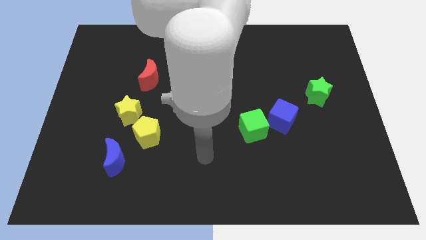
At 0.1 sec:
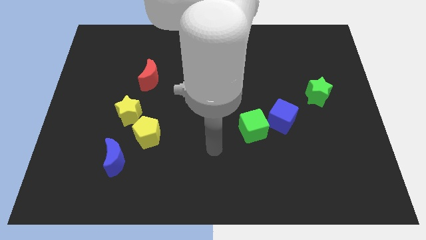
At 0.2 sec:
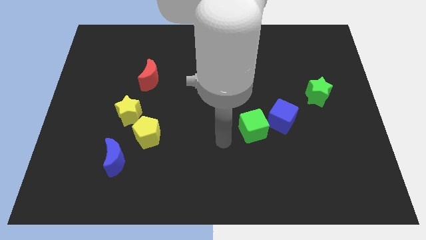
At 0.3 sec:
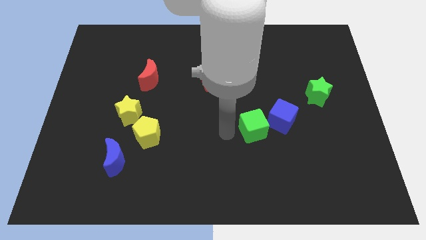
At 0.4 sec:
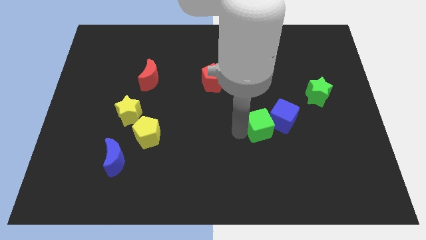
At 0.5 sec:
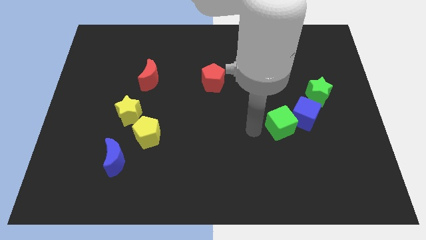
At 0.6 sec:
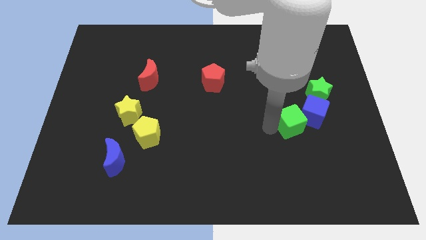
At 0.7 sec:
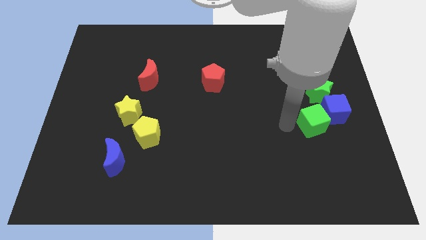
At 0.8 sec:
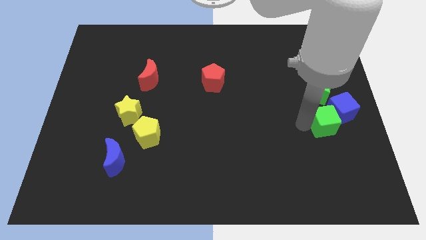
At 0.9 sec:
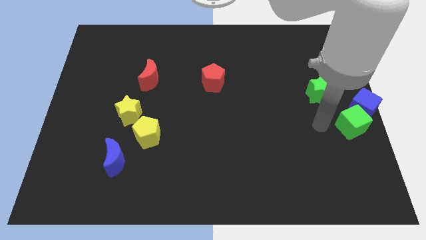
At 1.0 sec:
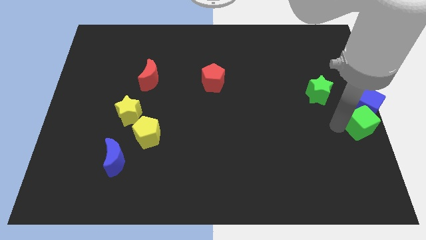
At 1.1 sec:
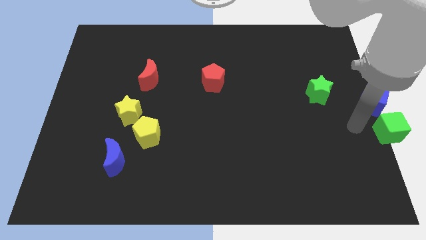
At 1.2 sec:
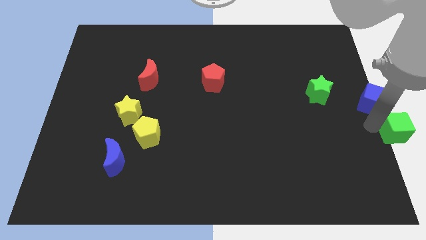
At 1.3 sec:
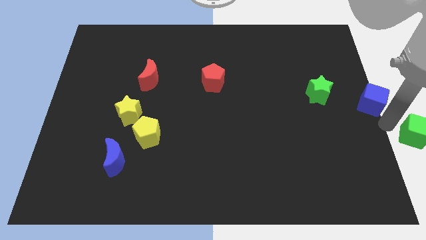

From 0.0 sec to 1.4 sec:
separate the blue cube from the green cube

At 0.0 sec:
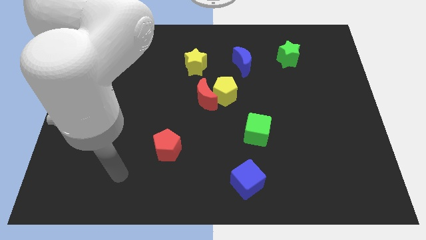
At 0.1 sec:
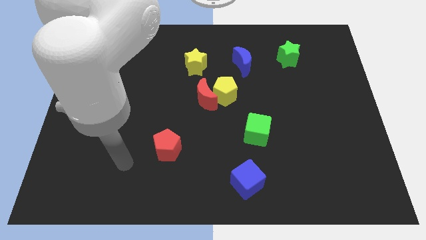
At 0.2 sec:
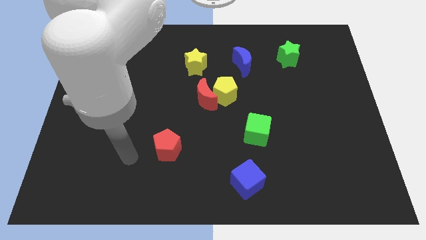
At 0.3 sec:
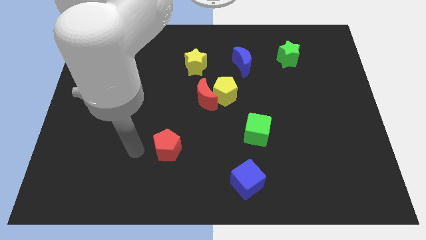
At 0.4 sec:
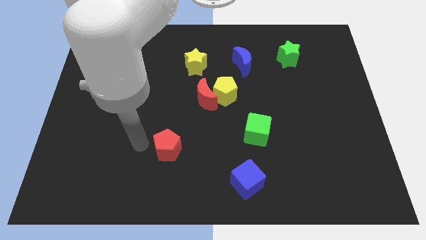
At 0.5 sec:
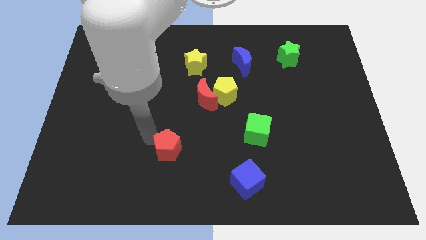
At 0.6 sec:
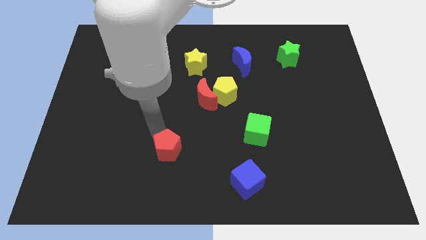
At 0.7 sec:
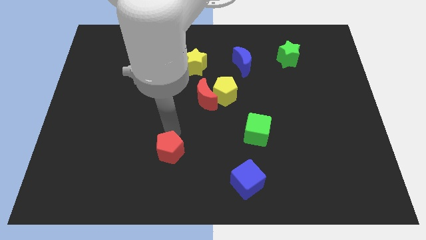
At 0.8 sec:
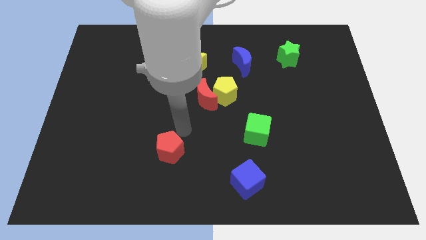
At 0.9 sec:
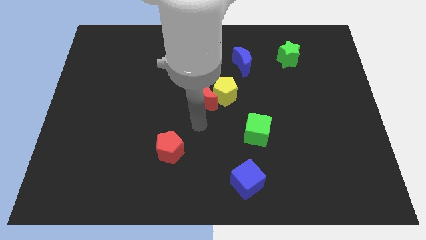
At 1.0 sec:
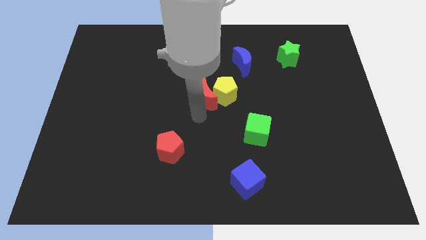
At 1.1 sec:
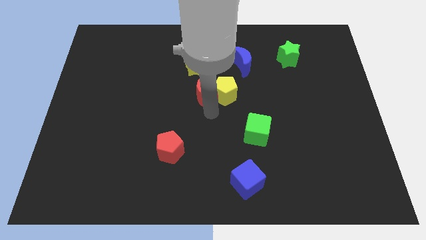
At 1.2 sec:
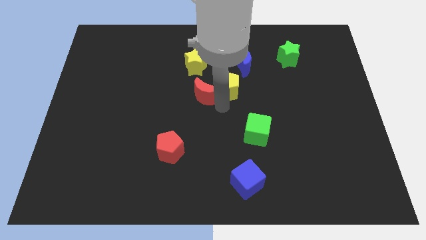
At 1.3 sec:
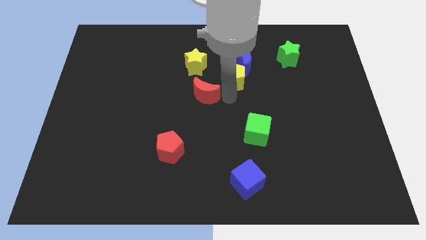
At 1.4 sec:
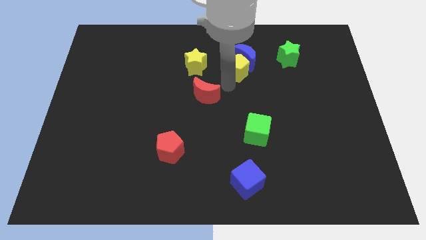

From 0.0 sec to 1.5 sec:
move the red moon away from the yellow pentagon

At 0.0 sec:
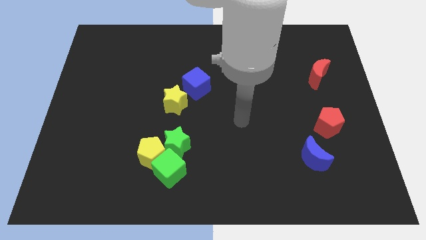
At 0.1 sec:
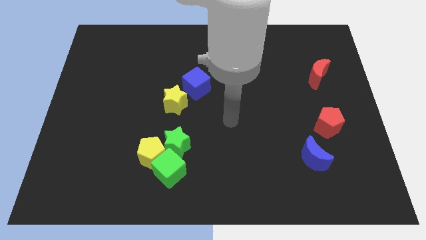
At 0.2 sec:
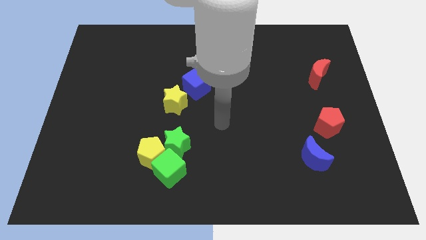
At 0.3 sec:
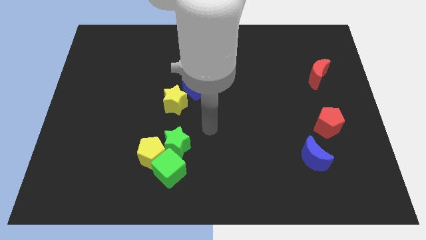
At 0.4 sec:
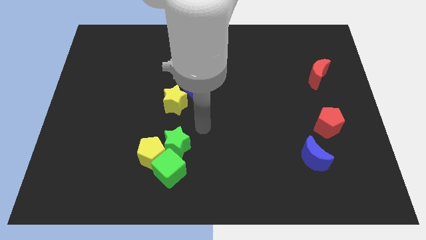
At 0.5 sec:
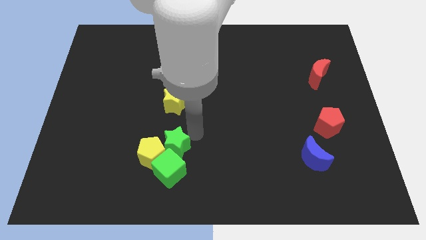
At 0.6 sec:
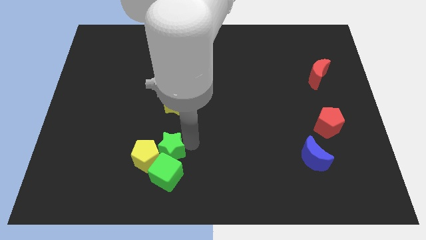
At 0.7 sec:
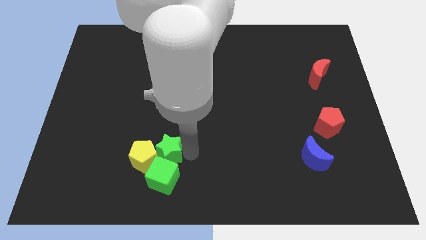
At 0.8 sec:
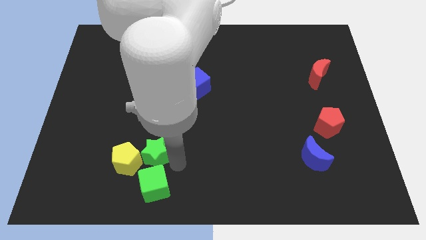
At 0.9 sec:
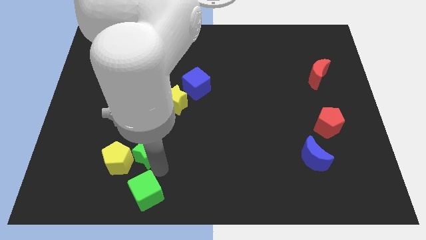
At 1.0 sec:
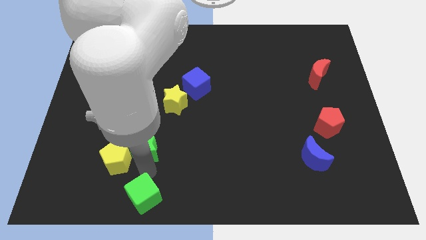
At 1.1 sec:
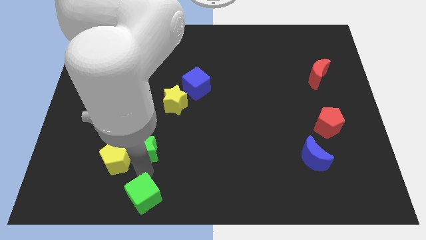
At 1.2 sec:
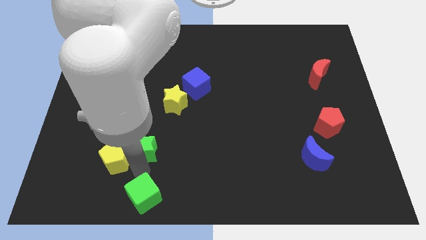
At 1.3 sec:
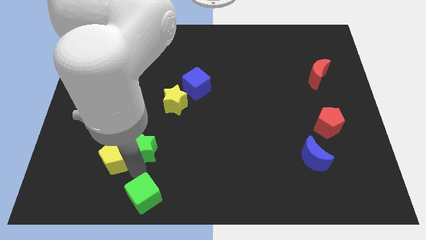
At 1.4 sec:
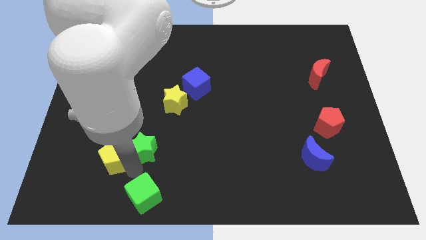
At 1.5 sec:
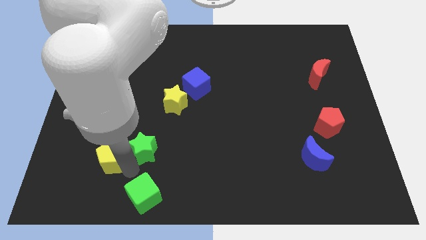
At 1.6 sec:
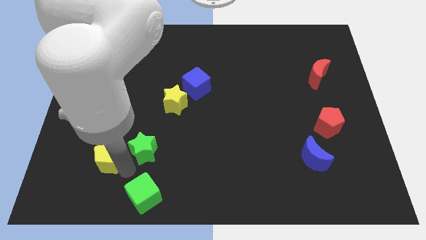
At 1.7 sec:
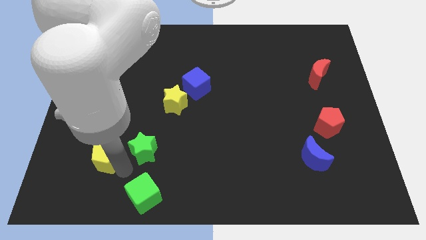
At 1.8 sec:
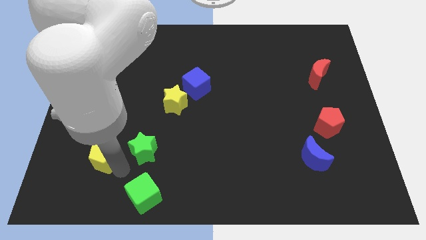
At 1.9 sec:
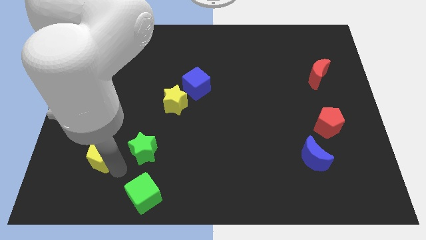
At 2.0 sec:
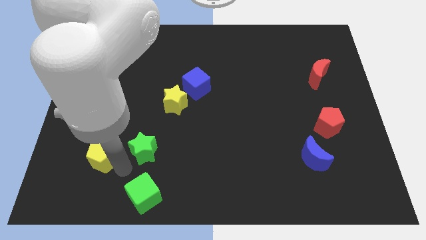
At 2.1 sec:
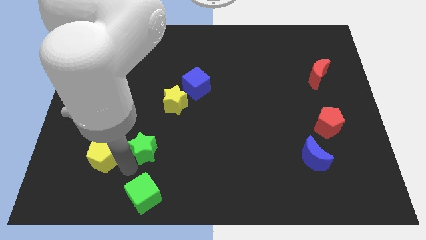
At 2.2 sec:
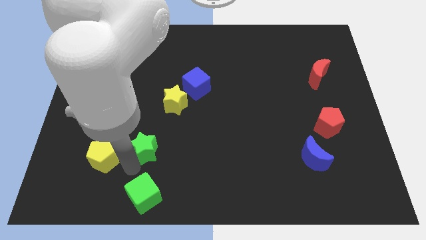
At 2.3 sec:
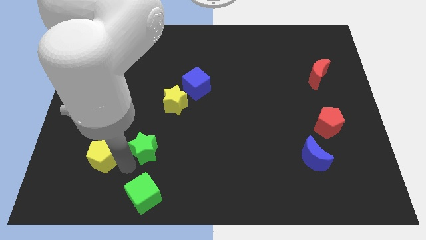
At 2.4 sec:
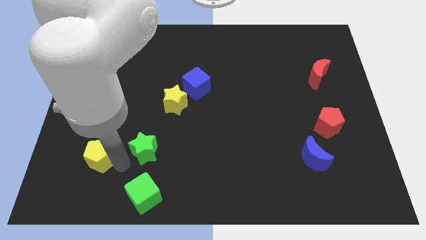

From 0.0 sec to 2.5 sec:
pull the yellow pentagon apart from the green cube and green star

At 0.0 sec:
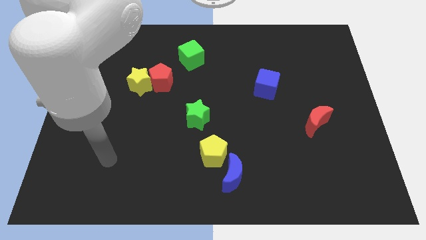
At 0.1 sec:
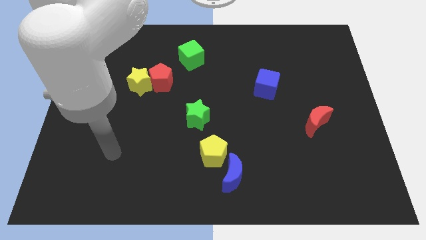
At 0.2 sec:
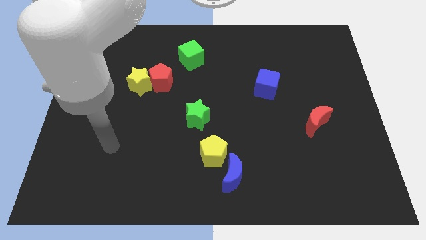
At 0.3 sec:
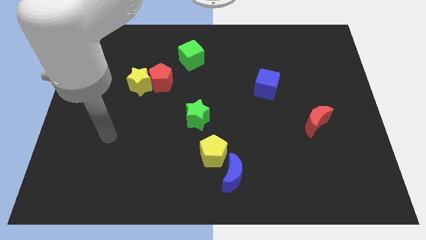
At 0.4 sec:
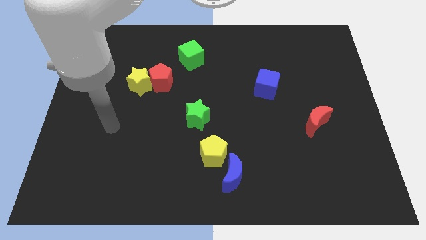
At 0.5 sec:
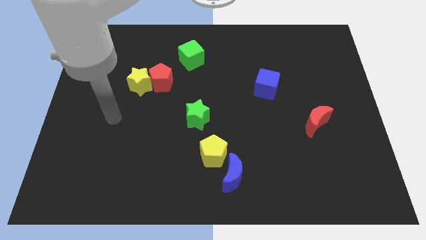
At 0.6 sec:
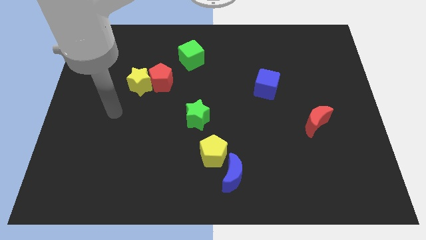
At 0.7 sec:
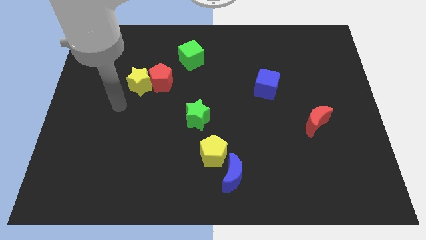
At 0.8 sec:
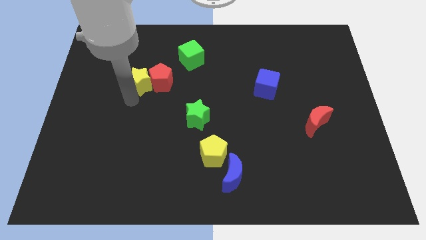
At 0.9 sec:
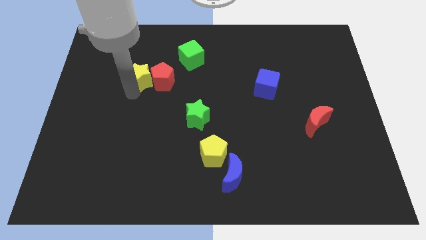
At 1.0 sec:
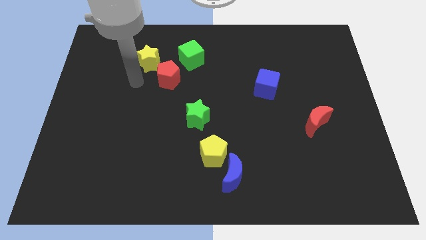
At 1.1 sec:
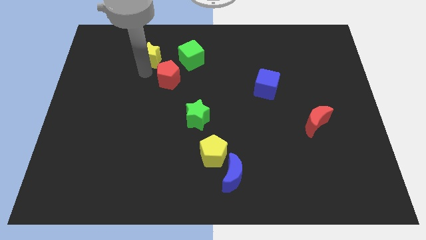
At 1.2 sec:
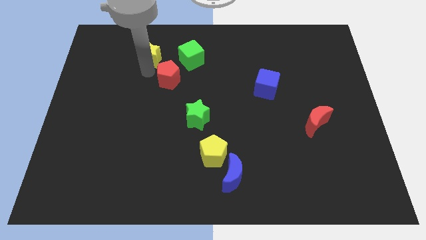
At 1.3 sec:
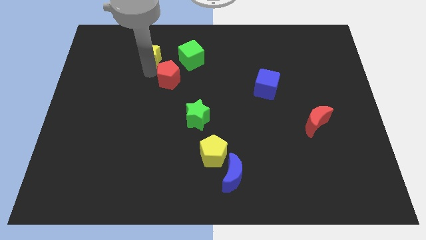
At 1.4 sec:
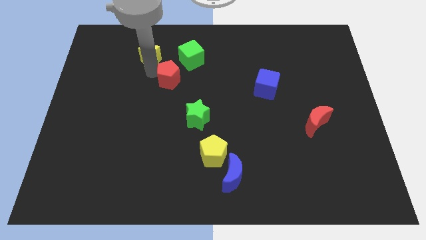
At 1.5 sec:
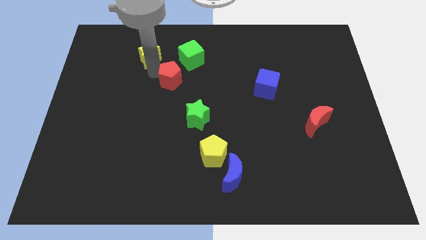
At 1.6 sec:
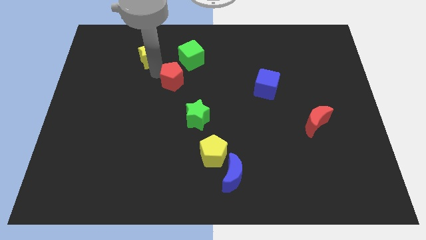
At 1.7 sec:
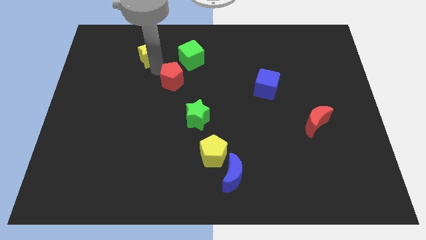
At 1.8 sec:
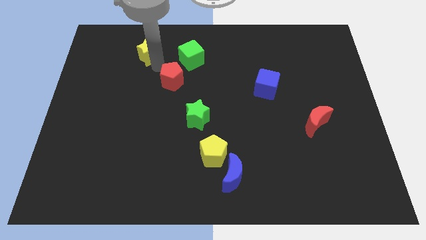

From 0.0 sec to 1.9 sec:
pull the red pentagon apart from the yellow star

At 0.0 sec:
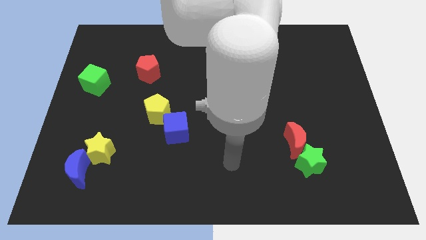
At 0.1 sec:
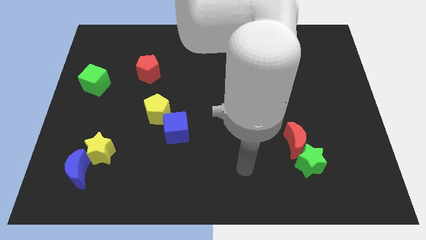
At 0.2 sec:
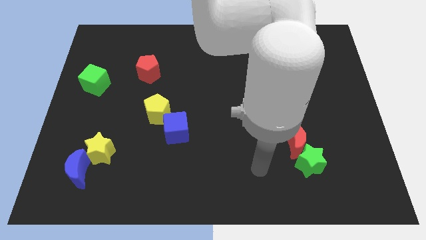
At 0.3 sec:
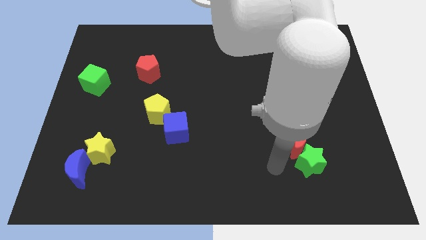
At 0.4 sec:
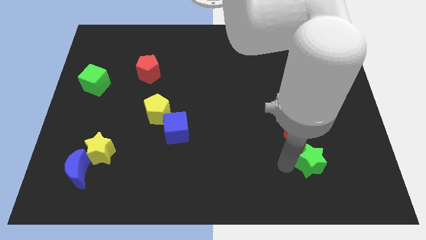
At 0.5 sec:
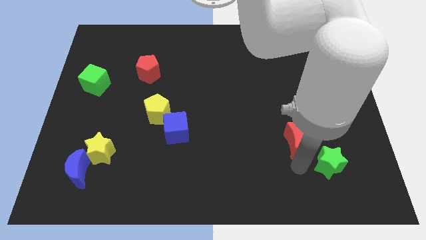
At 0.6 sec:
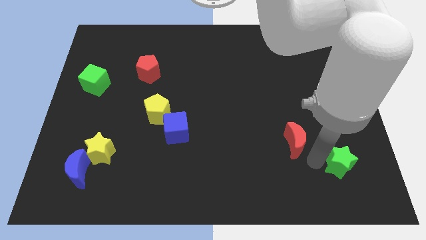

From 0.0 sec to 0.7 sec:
move the red moon away from the green star

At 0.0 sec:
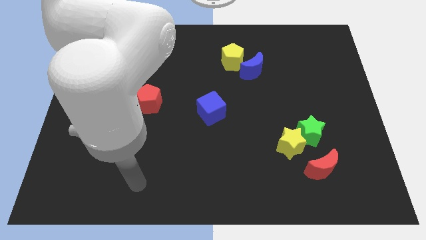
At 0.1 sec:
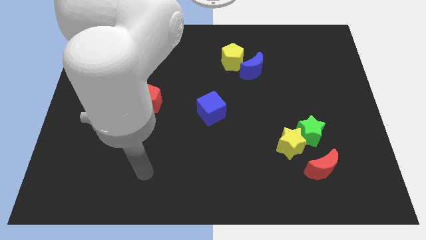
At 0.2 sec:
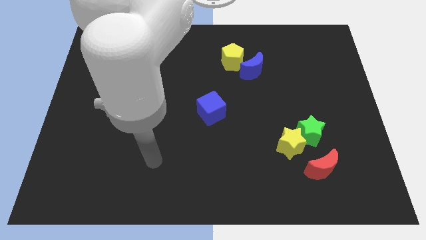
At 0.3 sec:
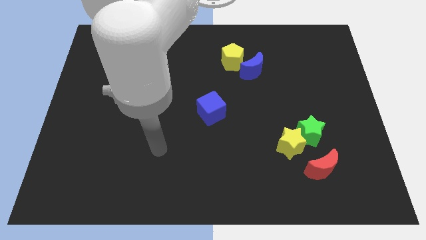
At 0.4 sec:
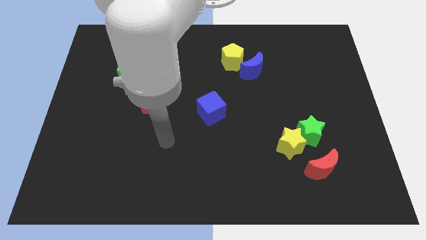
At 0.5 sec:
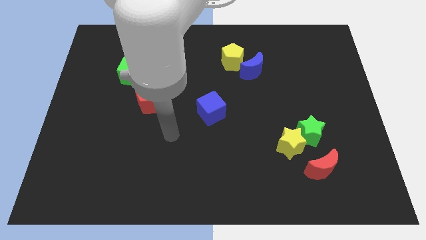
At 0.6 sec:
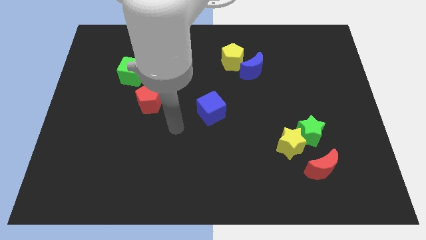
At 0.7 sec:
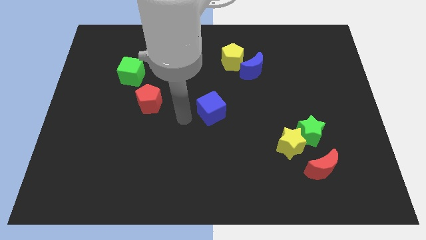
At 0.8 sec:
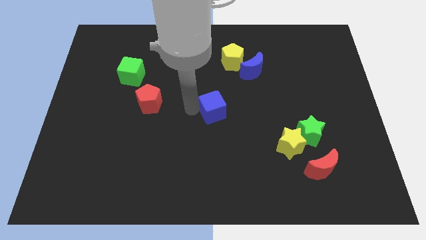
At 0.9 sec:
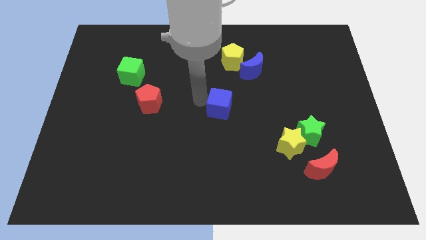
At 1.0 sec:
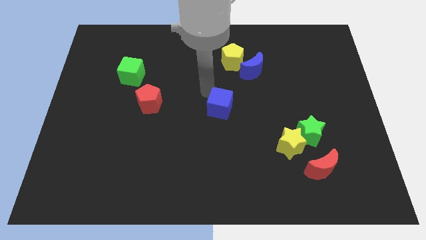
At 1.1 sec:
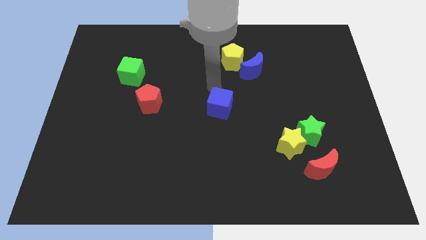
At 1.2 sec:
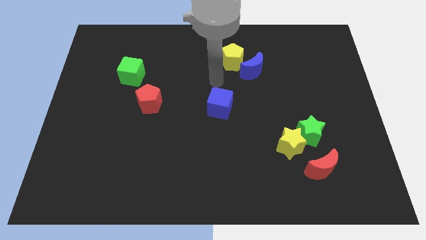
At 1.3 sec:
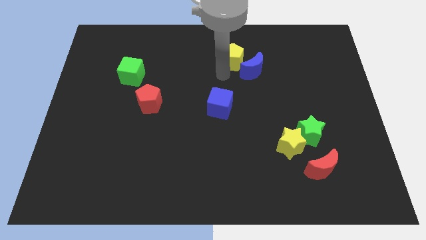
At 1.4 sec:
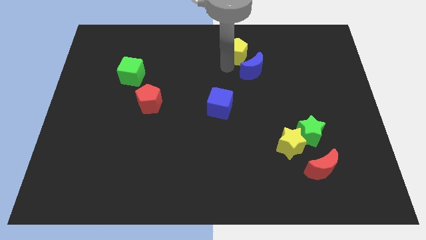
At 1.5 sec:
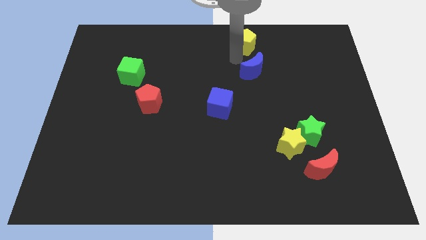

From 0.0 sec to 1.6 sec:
separate the blue moon from the yellow pentagon
